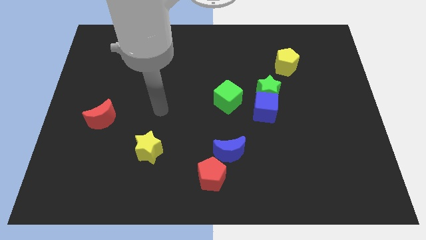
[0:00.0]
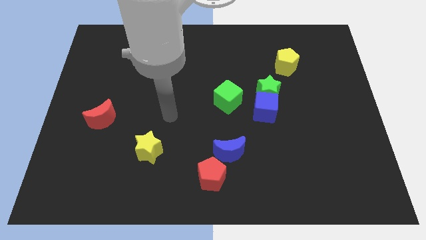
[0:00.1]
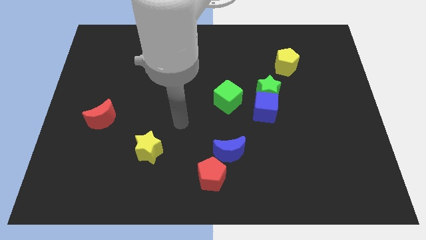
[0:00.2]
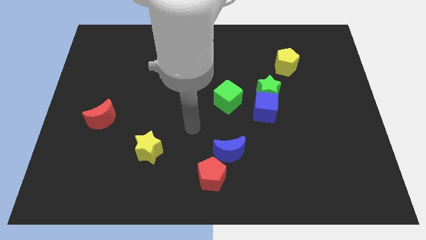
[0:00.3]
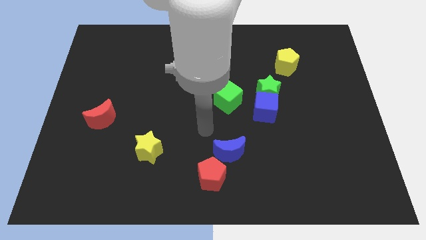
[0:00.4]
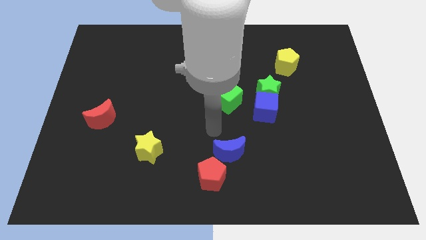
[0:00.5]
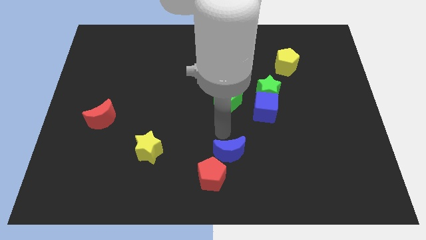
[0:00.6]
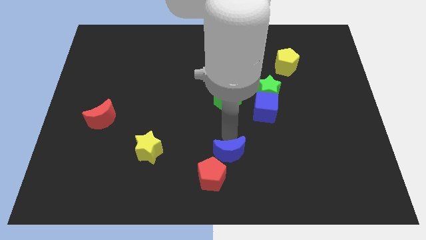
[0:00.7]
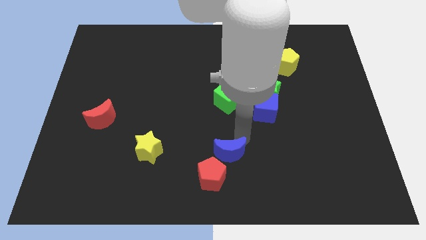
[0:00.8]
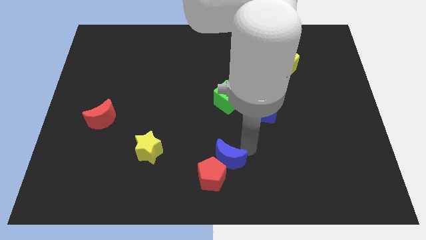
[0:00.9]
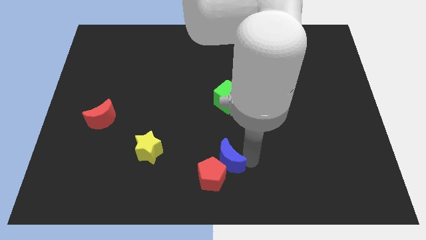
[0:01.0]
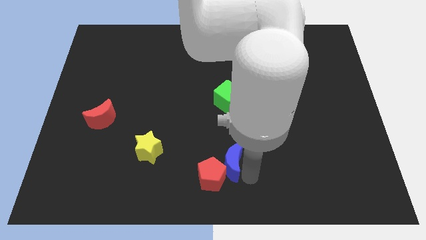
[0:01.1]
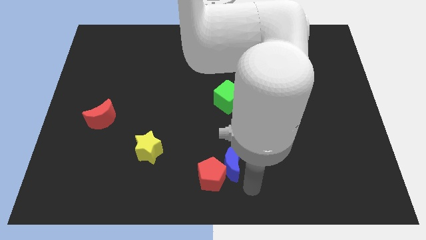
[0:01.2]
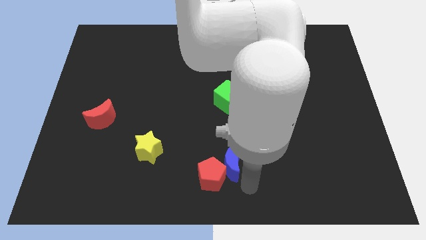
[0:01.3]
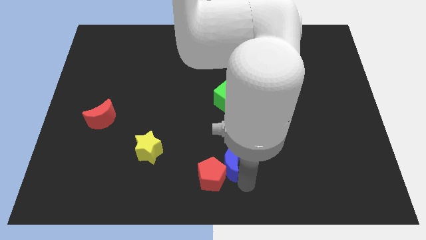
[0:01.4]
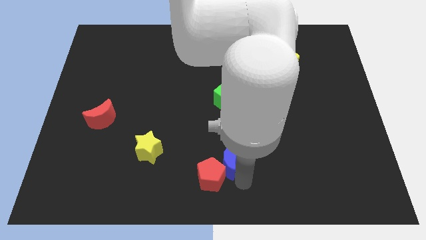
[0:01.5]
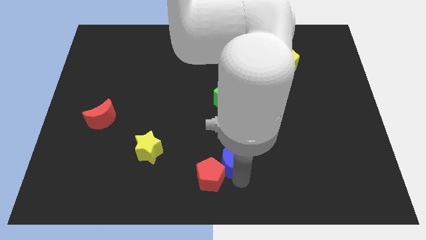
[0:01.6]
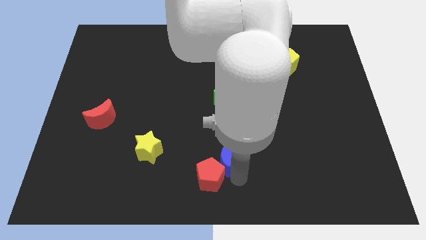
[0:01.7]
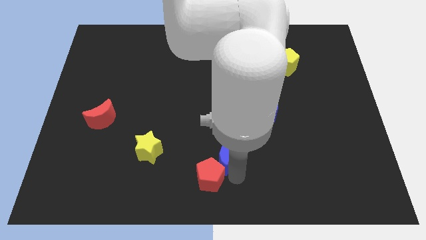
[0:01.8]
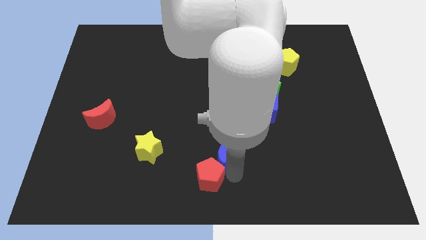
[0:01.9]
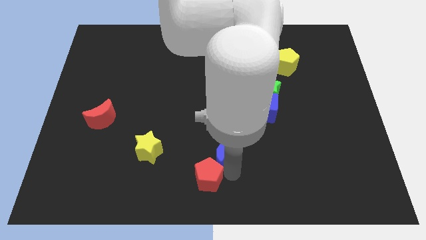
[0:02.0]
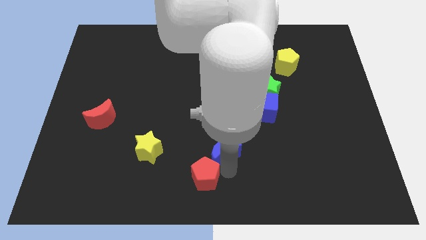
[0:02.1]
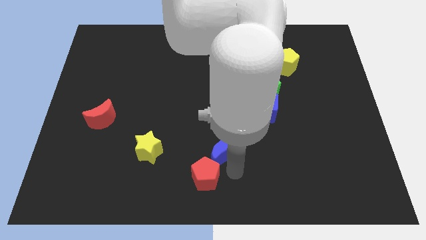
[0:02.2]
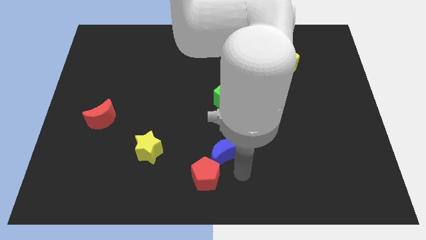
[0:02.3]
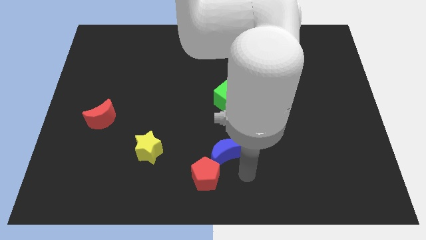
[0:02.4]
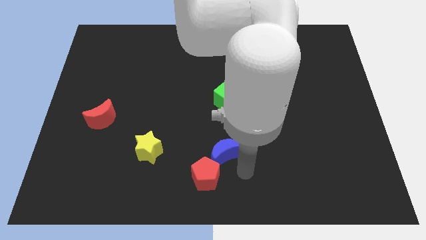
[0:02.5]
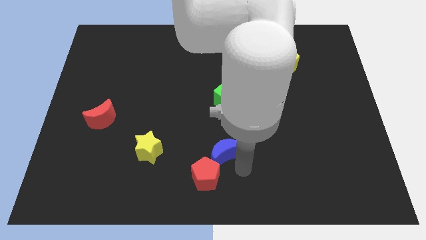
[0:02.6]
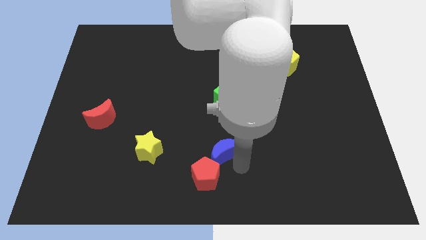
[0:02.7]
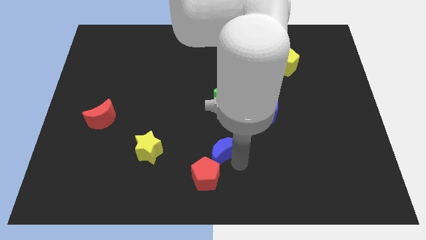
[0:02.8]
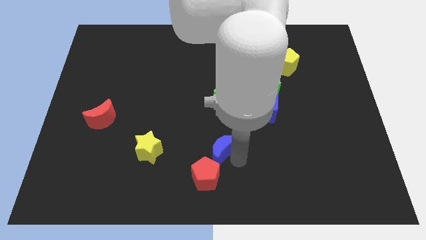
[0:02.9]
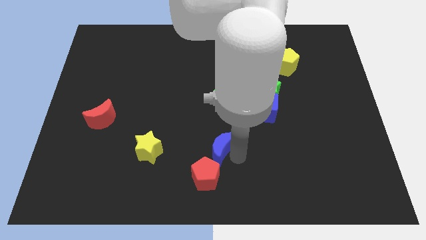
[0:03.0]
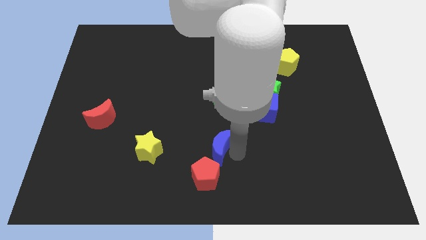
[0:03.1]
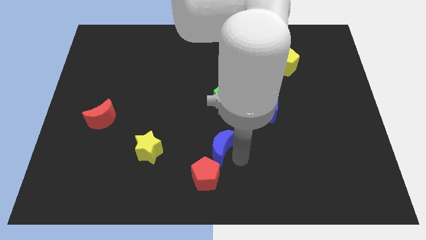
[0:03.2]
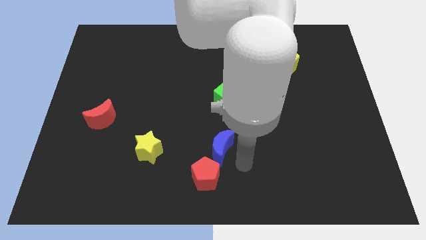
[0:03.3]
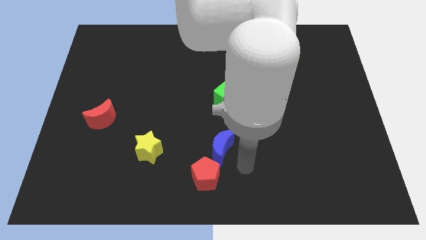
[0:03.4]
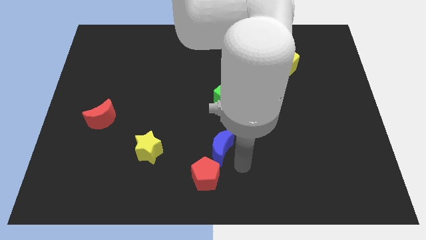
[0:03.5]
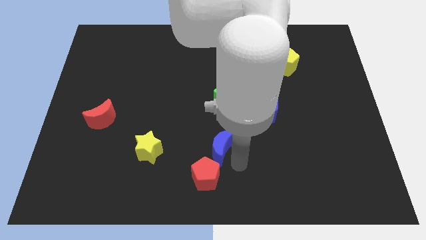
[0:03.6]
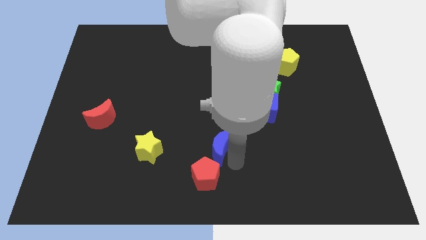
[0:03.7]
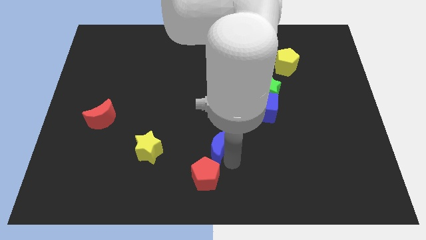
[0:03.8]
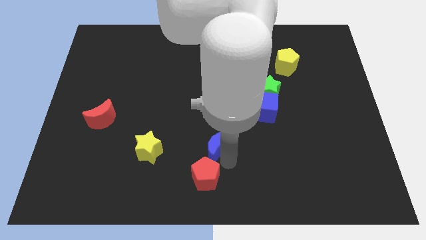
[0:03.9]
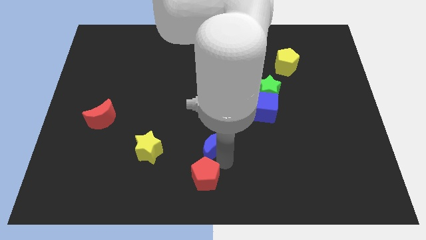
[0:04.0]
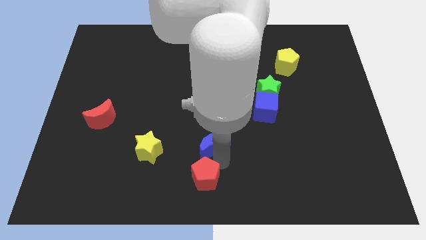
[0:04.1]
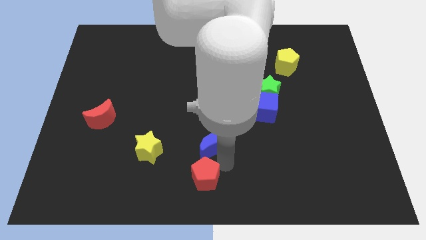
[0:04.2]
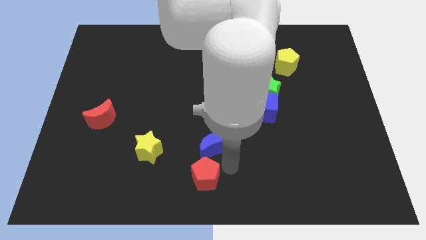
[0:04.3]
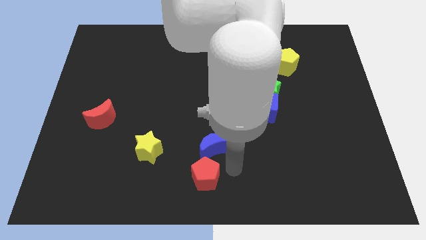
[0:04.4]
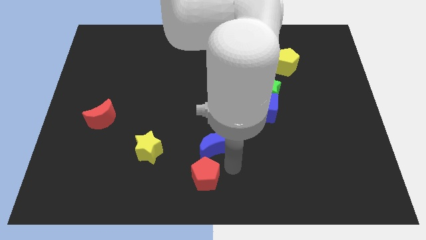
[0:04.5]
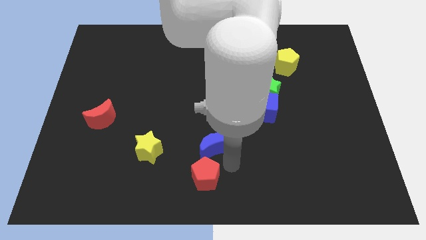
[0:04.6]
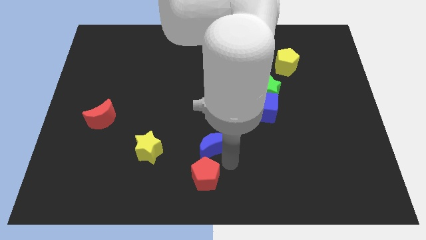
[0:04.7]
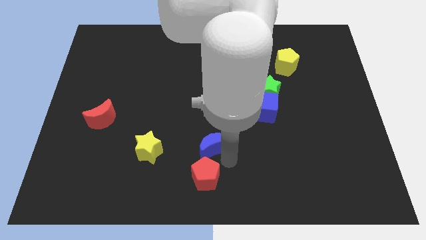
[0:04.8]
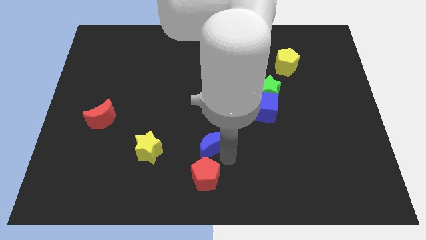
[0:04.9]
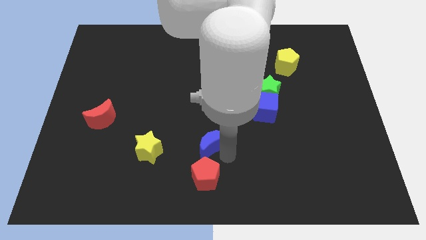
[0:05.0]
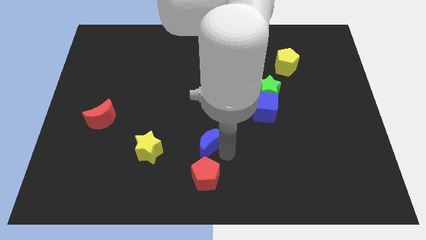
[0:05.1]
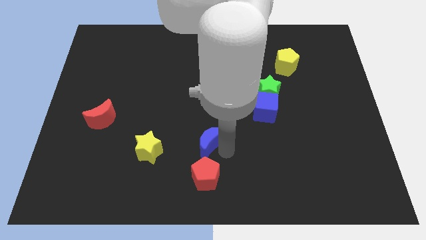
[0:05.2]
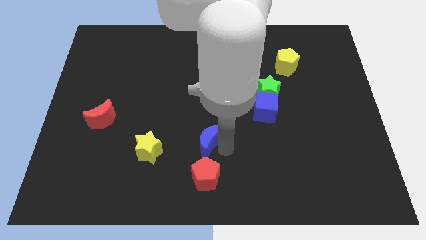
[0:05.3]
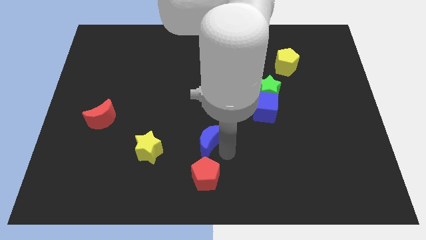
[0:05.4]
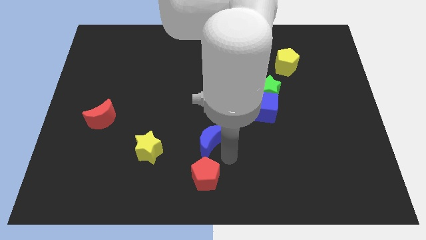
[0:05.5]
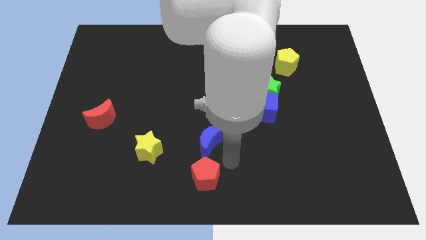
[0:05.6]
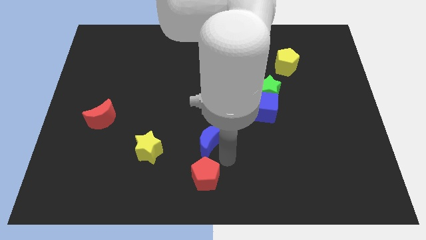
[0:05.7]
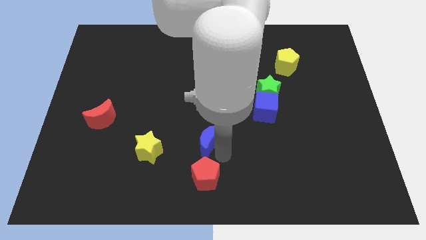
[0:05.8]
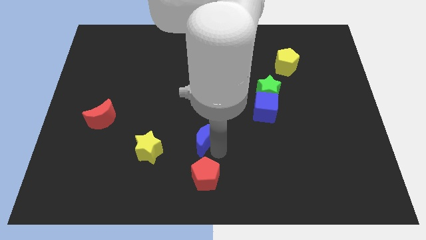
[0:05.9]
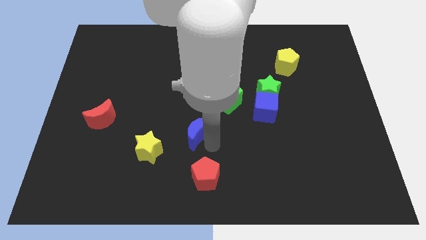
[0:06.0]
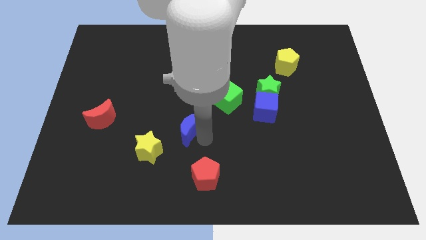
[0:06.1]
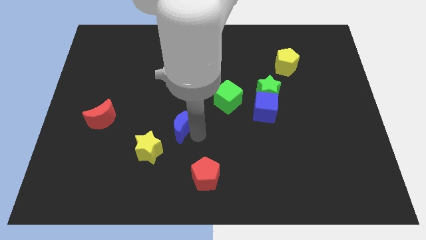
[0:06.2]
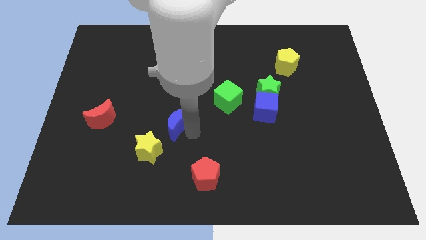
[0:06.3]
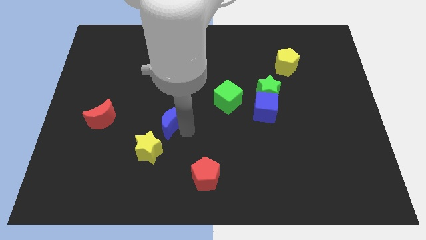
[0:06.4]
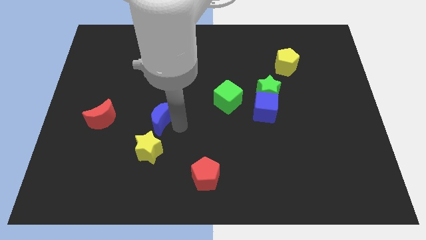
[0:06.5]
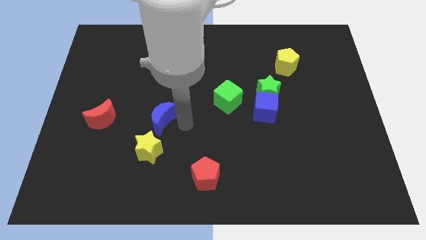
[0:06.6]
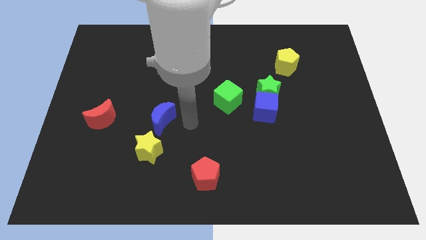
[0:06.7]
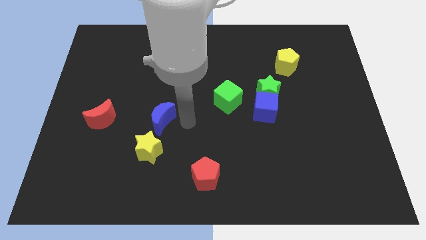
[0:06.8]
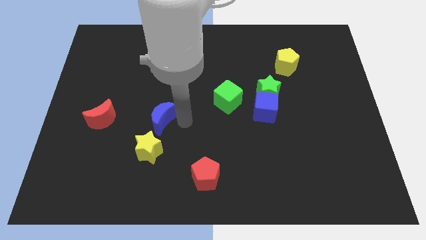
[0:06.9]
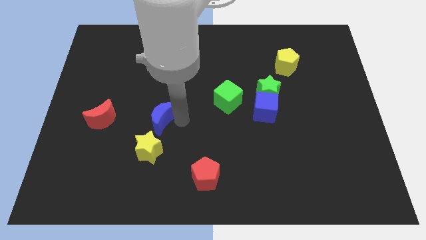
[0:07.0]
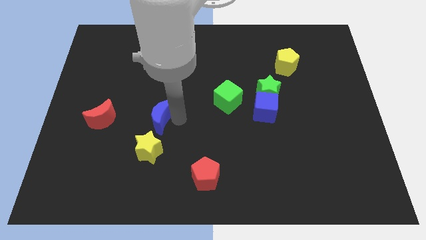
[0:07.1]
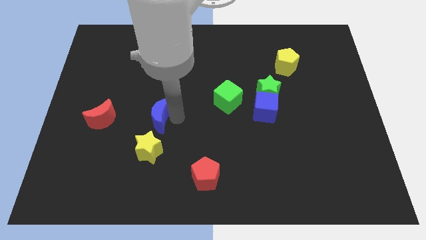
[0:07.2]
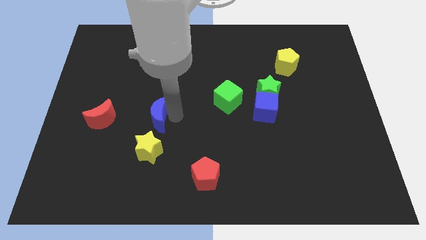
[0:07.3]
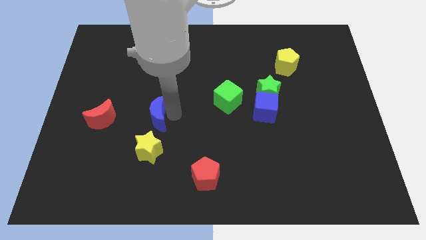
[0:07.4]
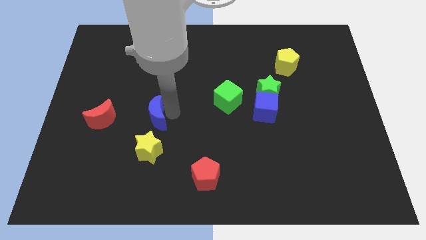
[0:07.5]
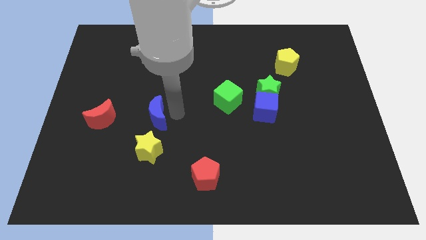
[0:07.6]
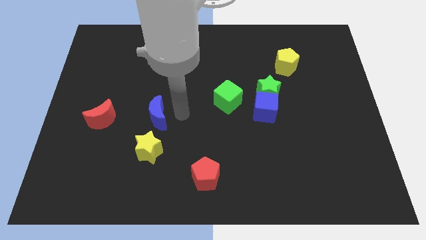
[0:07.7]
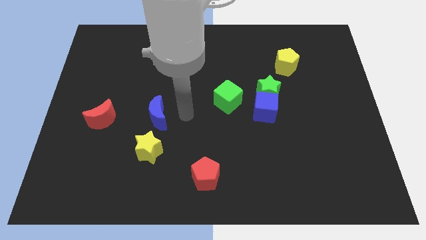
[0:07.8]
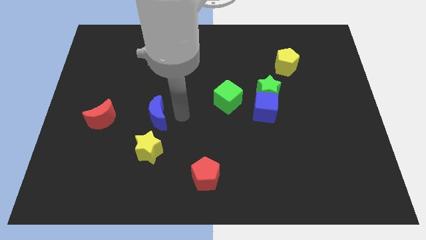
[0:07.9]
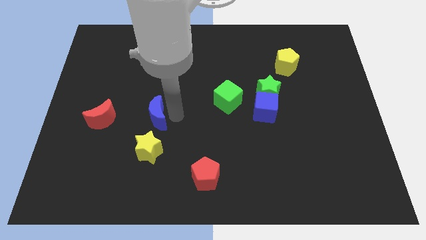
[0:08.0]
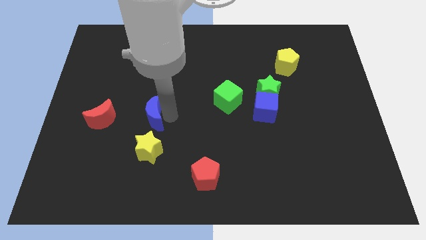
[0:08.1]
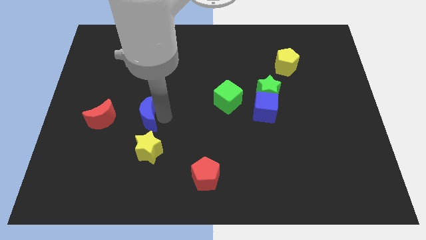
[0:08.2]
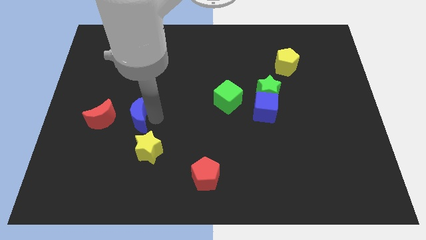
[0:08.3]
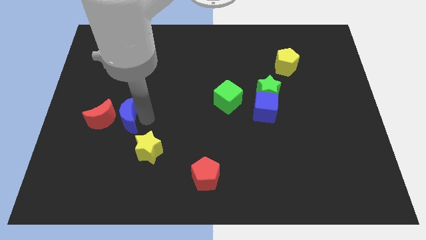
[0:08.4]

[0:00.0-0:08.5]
move the blue moon to the red moon
